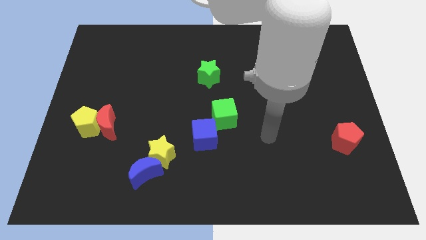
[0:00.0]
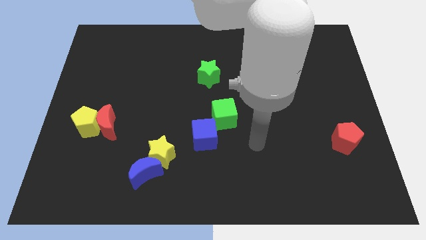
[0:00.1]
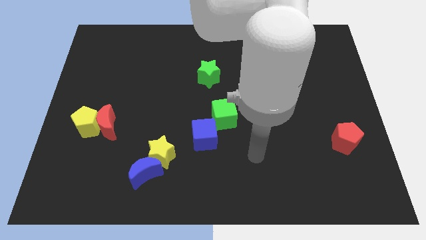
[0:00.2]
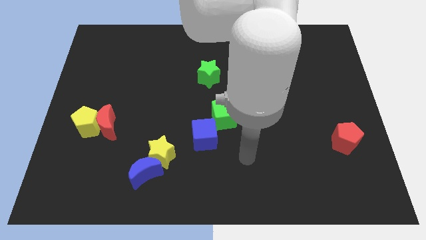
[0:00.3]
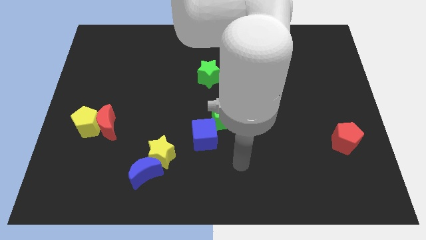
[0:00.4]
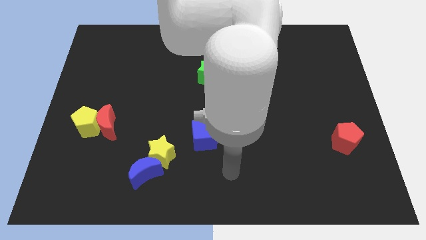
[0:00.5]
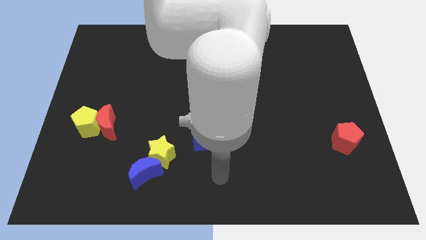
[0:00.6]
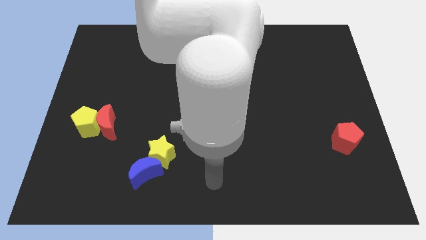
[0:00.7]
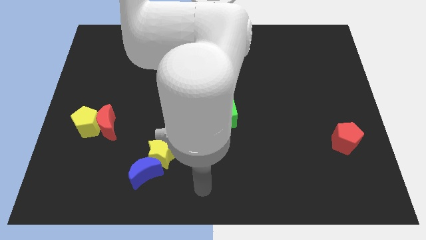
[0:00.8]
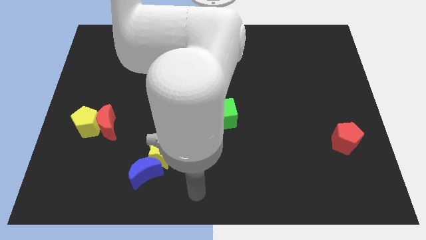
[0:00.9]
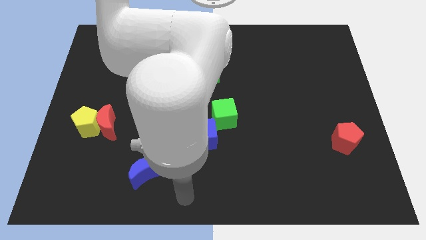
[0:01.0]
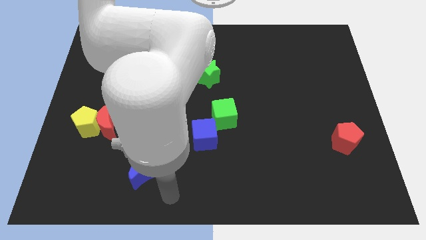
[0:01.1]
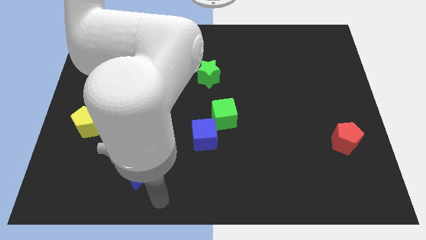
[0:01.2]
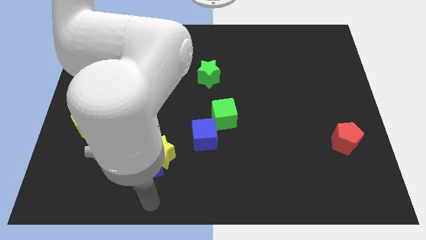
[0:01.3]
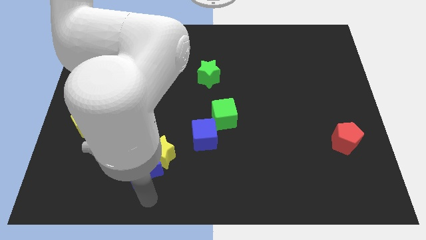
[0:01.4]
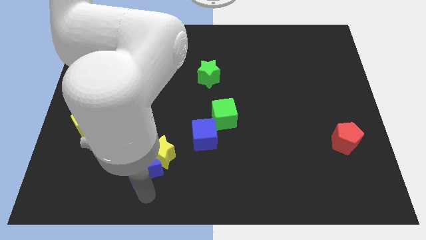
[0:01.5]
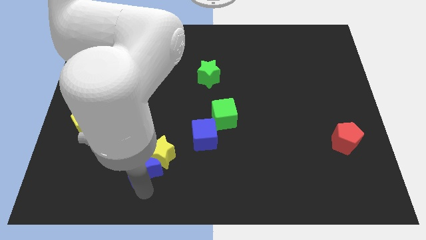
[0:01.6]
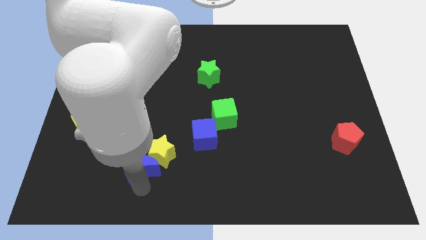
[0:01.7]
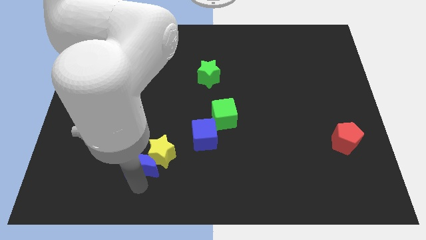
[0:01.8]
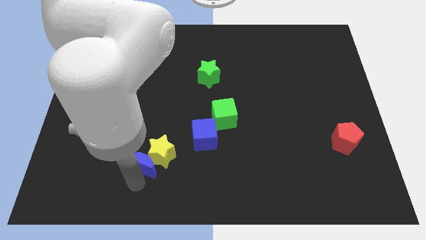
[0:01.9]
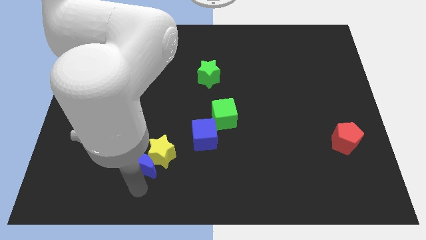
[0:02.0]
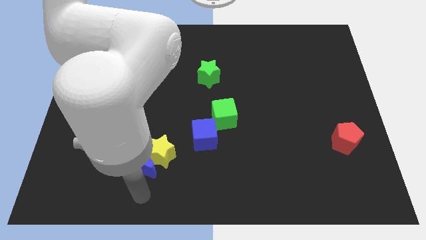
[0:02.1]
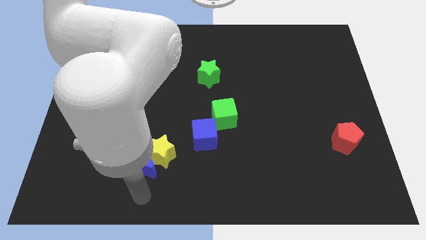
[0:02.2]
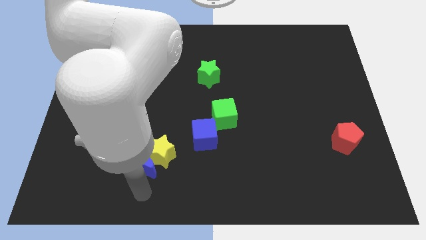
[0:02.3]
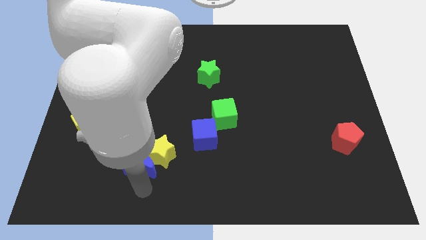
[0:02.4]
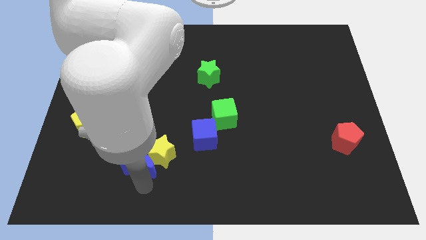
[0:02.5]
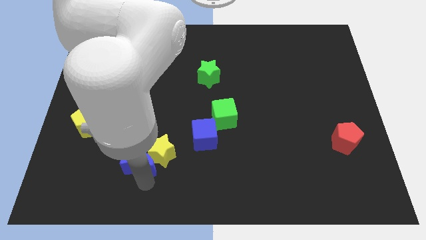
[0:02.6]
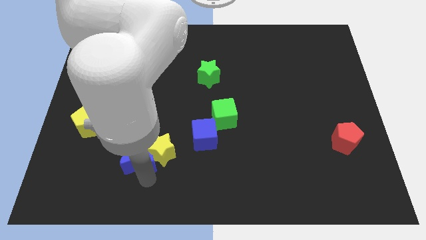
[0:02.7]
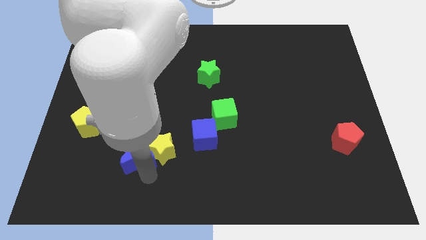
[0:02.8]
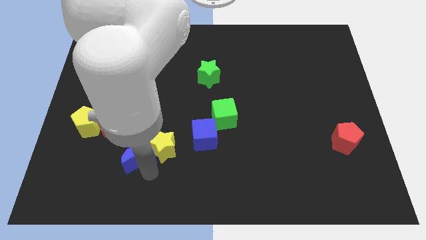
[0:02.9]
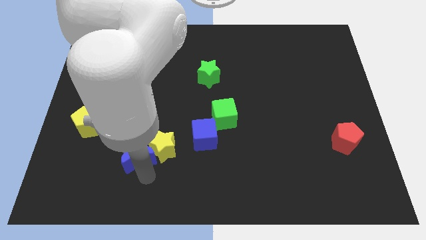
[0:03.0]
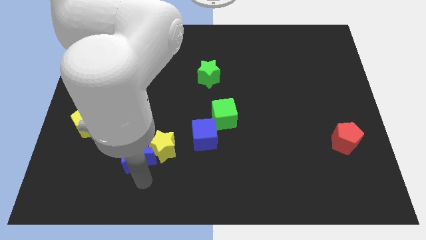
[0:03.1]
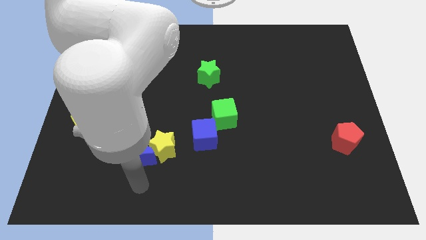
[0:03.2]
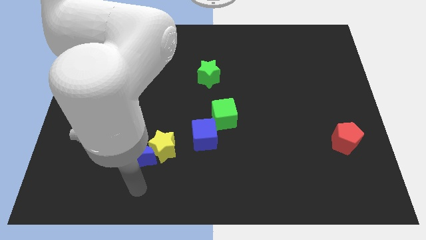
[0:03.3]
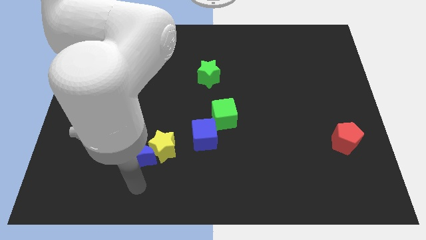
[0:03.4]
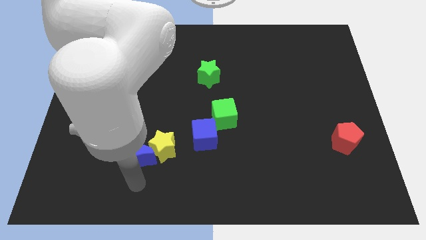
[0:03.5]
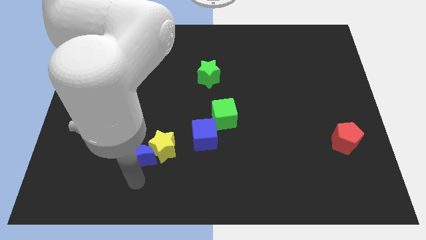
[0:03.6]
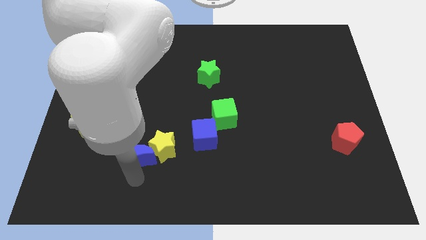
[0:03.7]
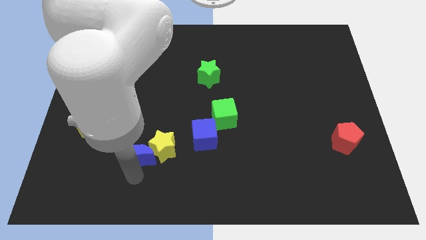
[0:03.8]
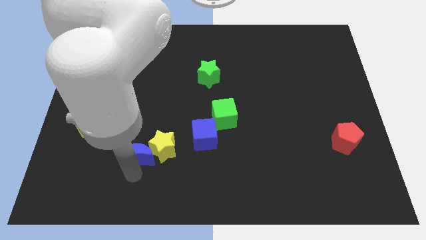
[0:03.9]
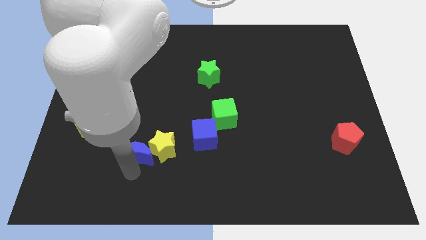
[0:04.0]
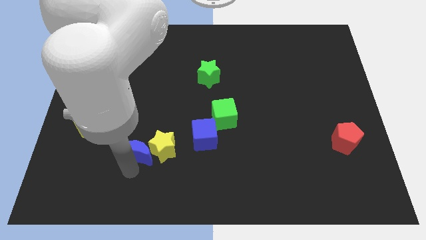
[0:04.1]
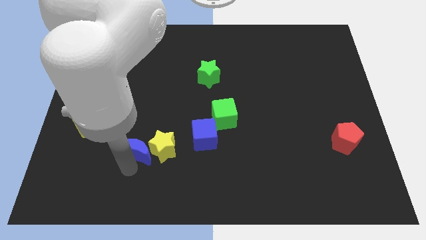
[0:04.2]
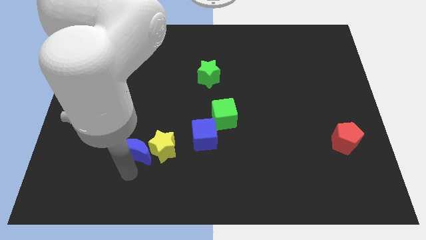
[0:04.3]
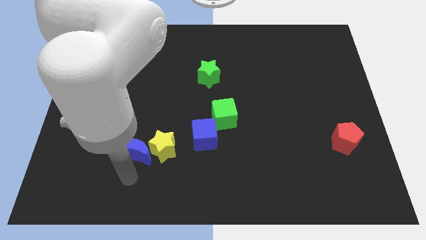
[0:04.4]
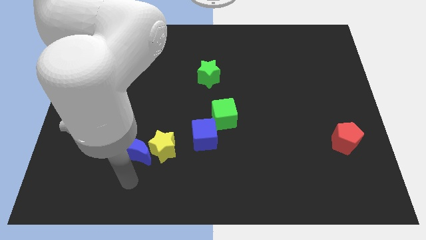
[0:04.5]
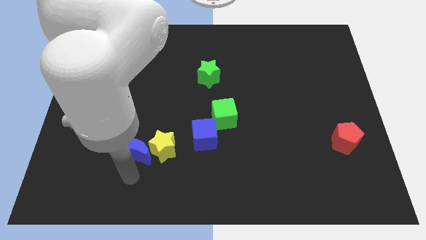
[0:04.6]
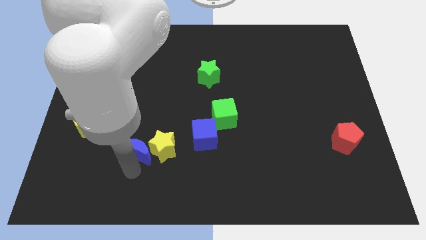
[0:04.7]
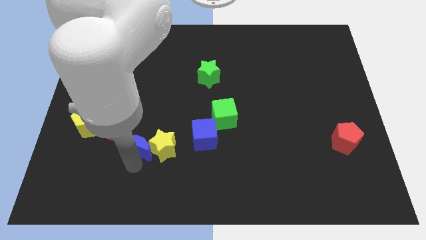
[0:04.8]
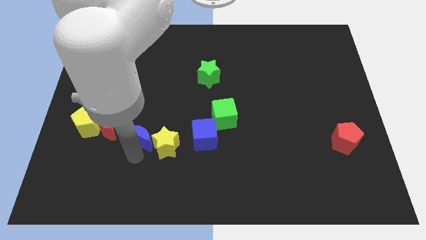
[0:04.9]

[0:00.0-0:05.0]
slide the blue moon a bit upwards

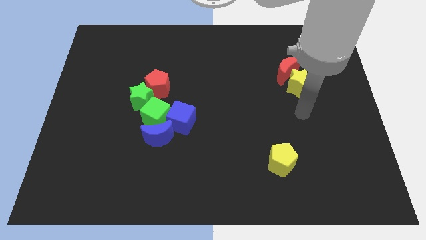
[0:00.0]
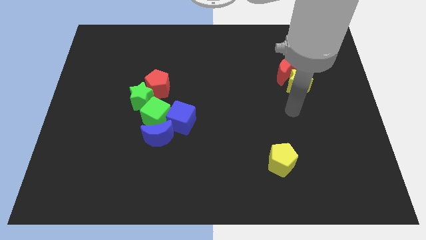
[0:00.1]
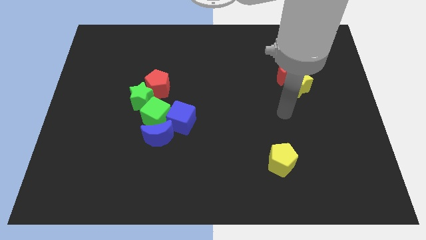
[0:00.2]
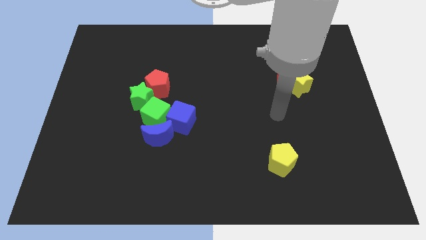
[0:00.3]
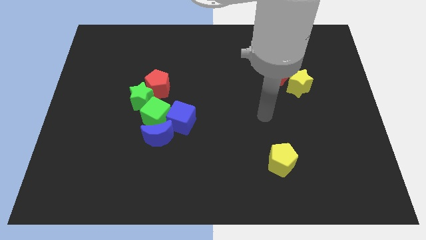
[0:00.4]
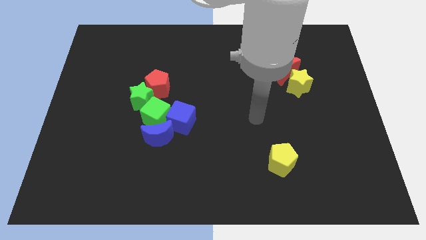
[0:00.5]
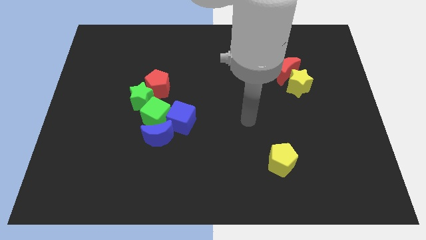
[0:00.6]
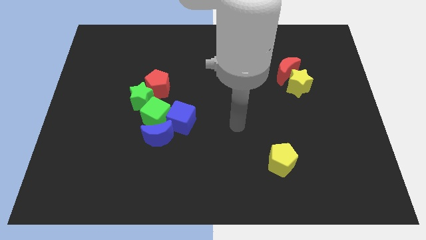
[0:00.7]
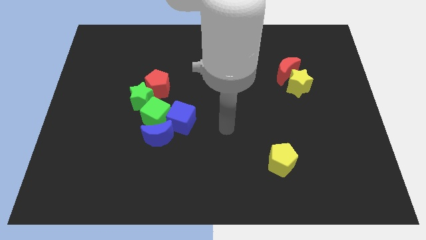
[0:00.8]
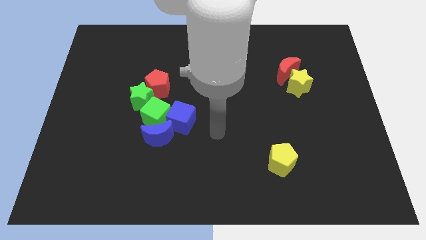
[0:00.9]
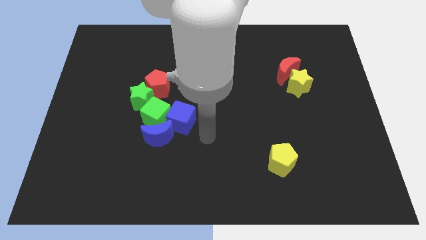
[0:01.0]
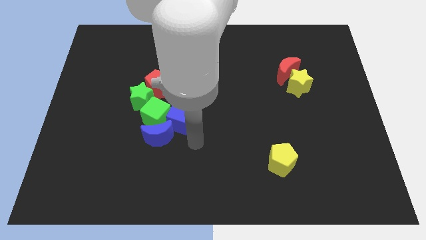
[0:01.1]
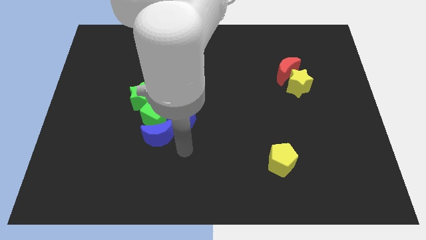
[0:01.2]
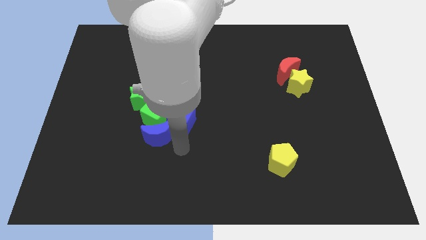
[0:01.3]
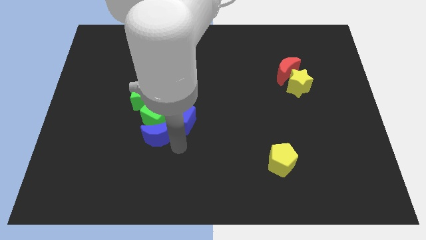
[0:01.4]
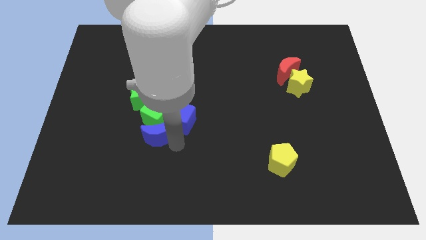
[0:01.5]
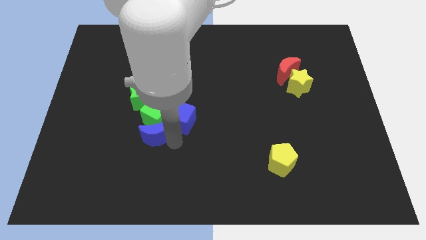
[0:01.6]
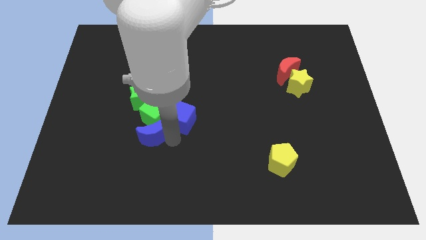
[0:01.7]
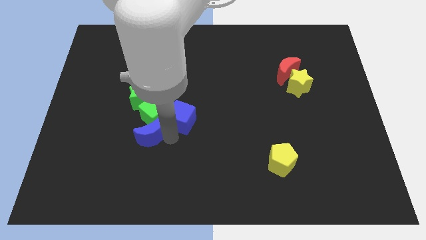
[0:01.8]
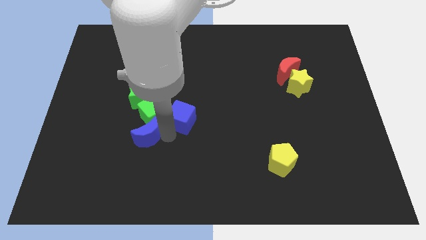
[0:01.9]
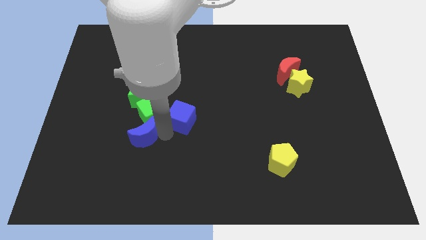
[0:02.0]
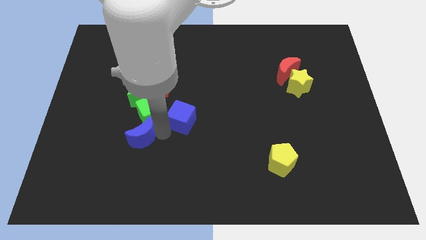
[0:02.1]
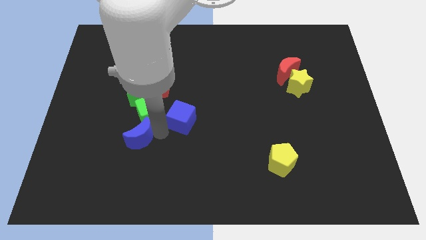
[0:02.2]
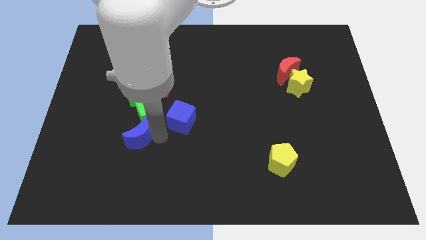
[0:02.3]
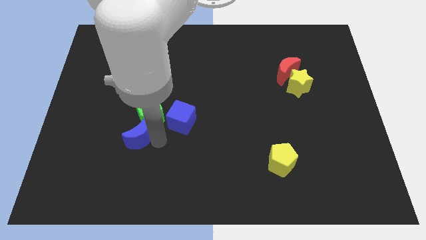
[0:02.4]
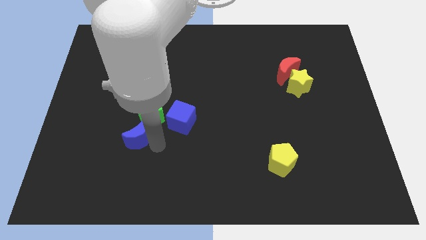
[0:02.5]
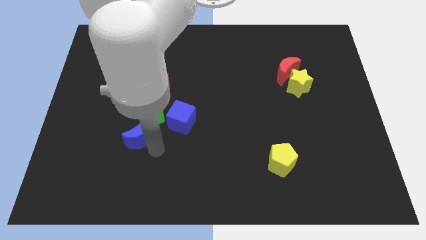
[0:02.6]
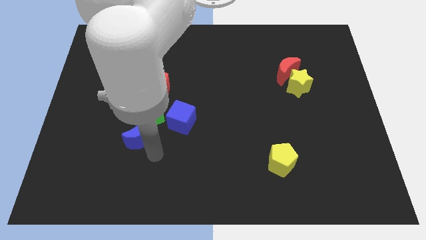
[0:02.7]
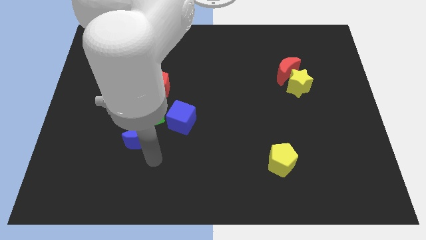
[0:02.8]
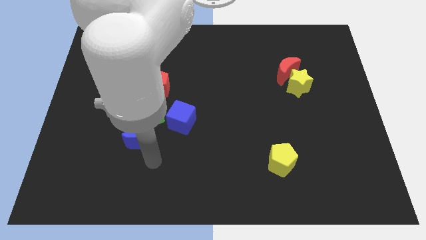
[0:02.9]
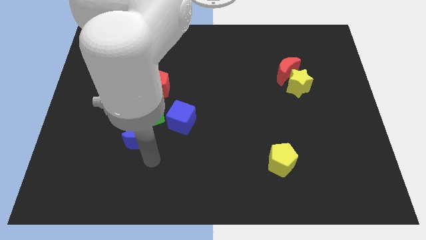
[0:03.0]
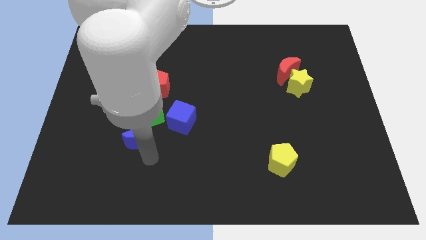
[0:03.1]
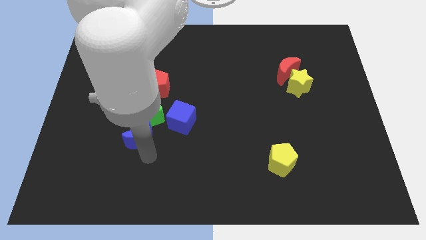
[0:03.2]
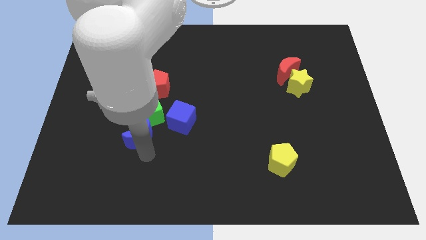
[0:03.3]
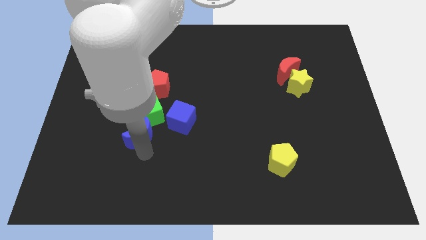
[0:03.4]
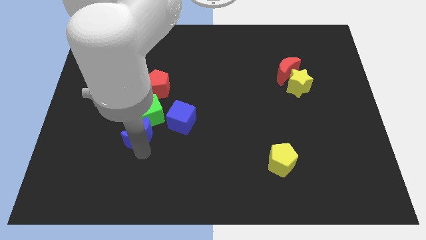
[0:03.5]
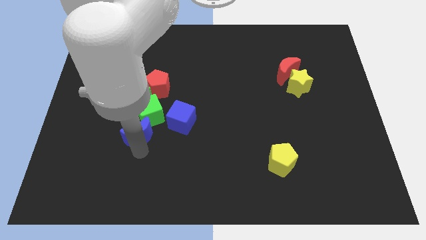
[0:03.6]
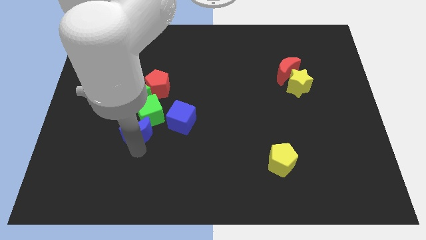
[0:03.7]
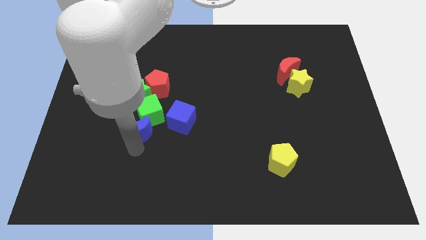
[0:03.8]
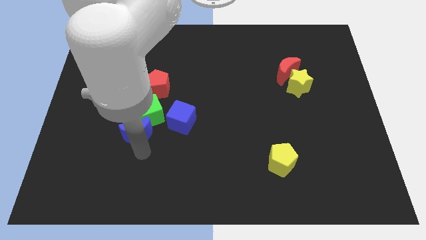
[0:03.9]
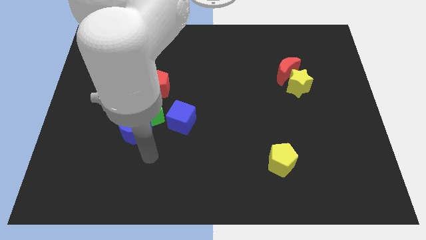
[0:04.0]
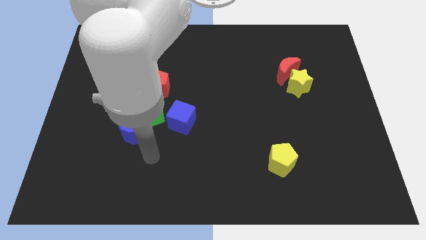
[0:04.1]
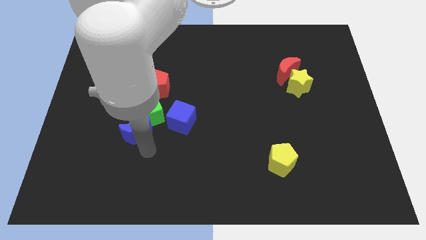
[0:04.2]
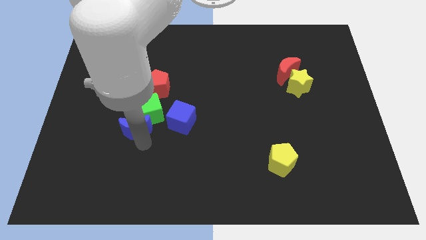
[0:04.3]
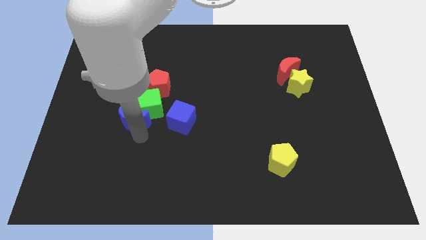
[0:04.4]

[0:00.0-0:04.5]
push the blue moon upwards and to the left diagonally a little bit
